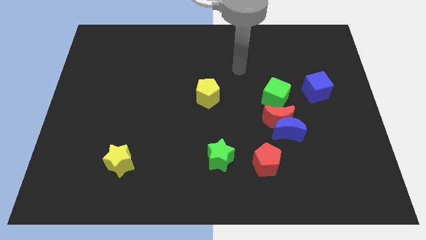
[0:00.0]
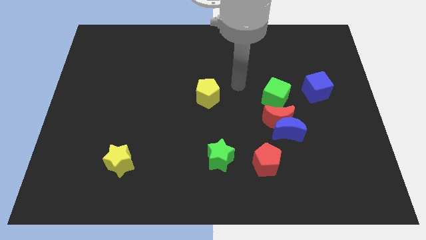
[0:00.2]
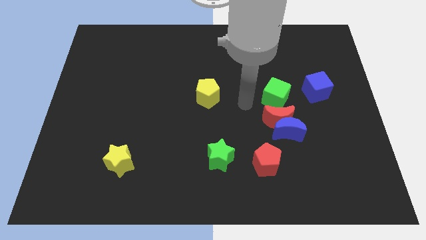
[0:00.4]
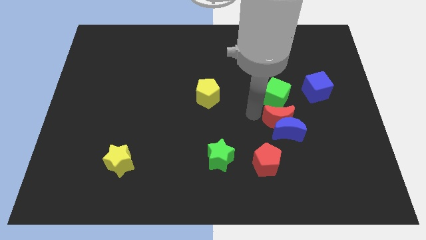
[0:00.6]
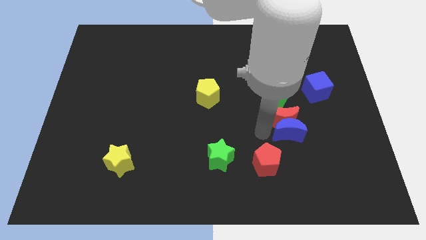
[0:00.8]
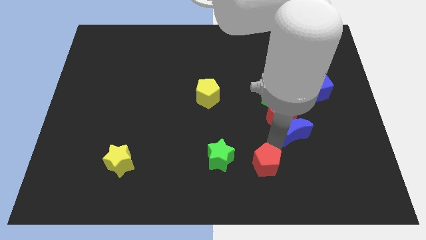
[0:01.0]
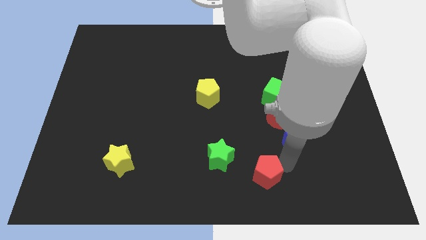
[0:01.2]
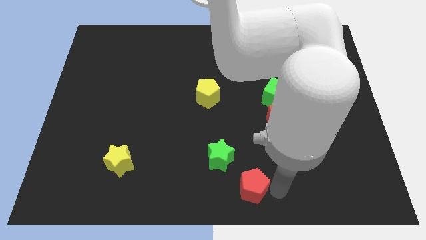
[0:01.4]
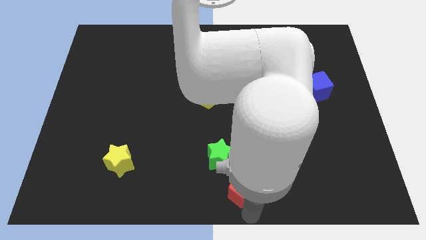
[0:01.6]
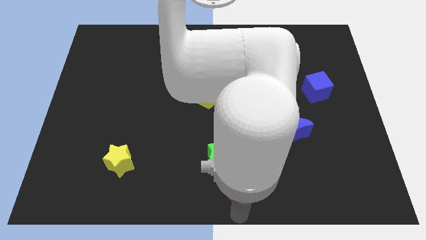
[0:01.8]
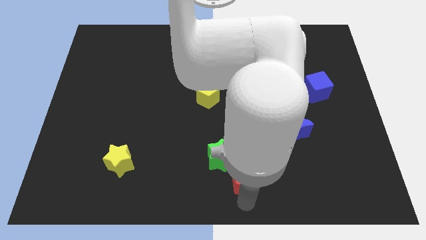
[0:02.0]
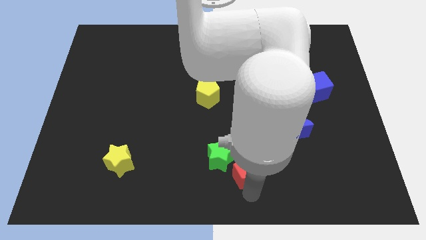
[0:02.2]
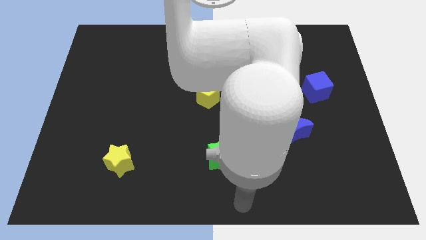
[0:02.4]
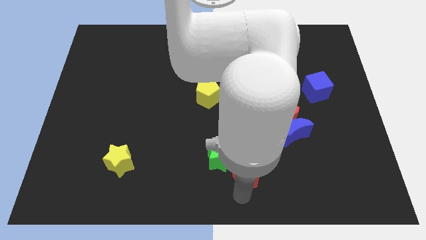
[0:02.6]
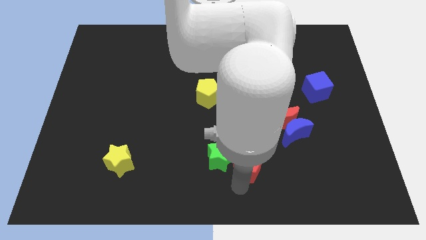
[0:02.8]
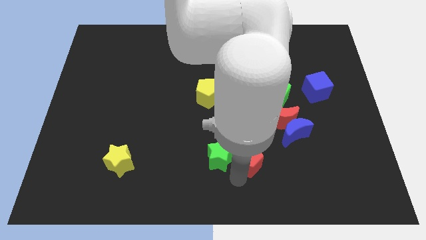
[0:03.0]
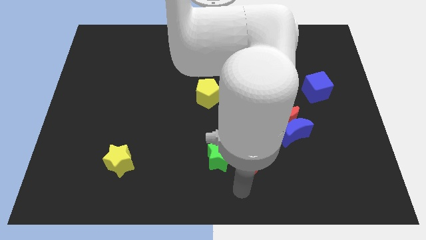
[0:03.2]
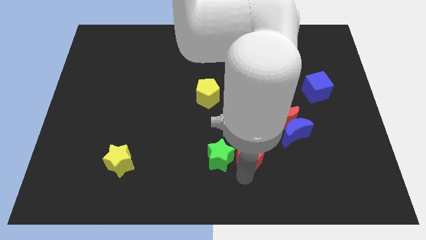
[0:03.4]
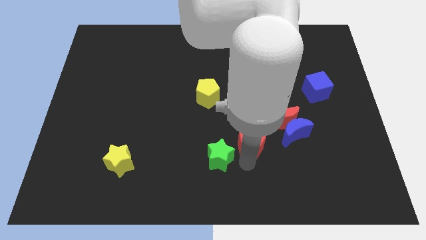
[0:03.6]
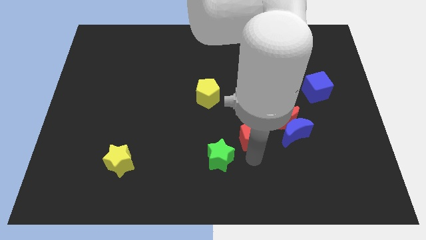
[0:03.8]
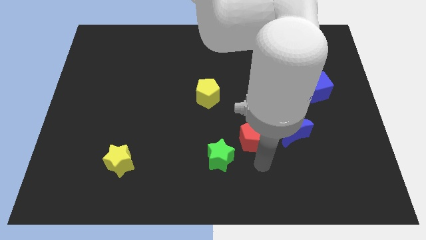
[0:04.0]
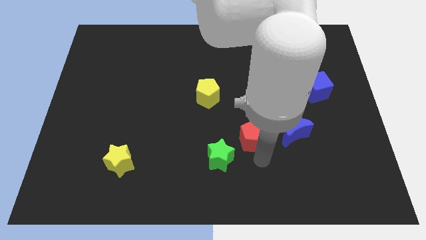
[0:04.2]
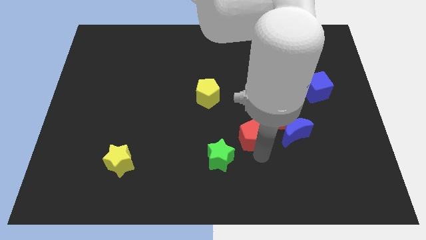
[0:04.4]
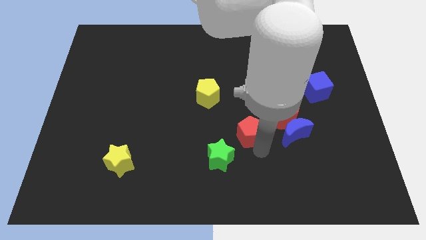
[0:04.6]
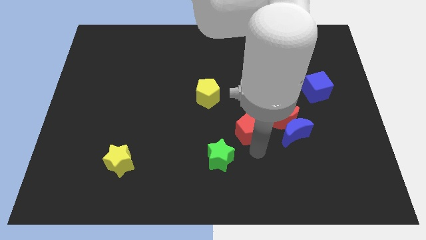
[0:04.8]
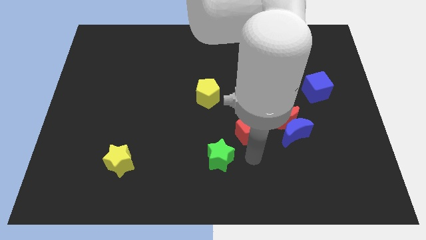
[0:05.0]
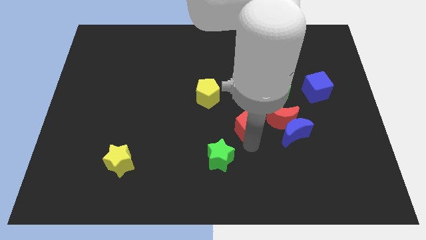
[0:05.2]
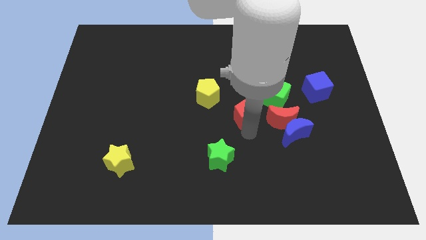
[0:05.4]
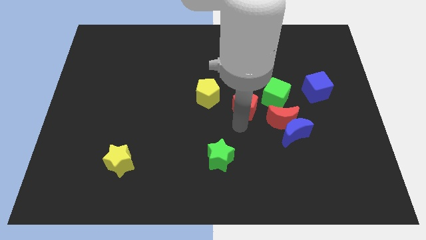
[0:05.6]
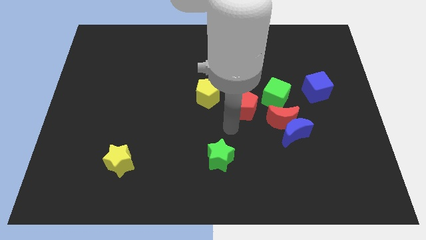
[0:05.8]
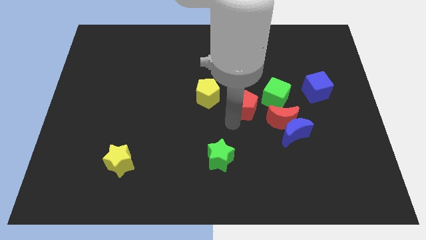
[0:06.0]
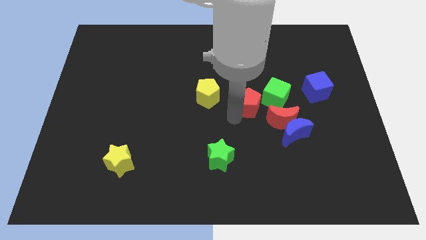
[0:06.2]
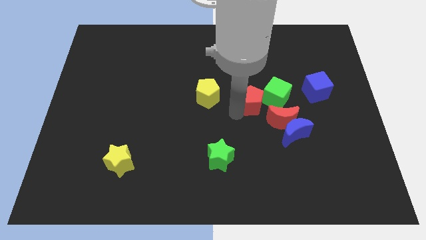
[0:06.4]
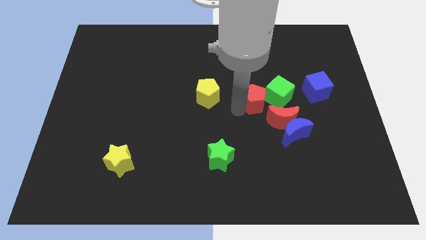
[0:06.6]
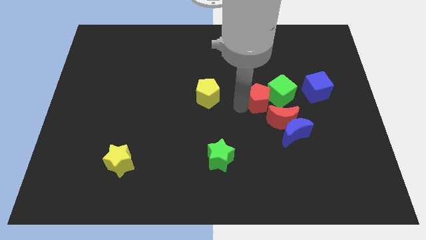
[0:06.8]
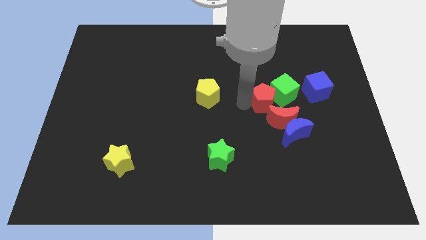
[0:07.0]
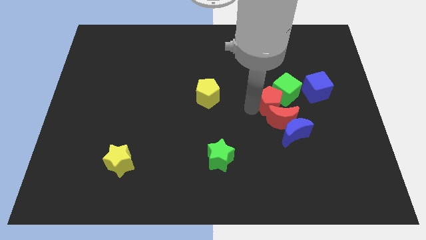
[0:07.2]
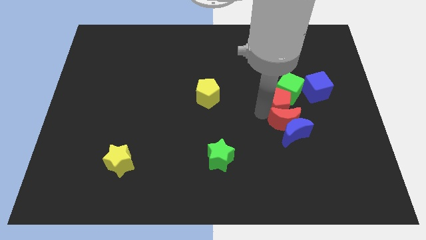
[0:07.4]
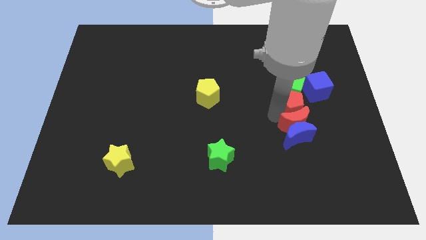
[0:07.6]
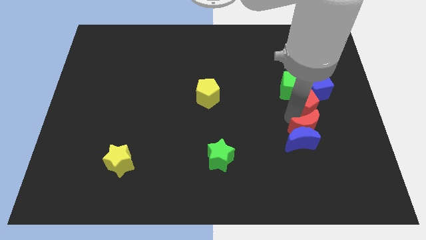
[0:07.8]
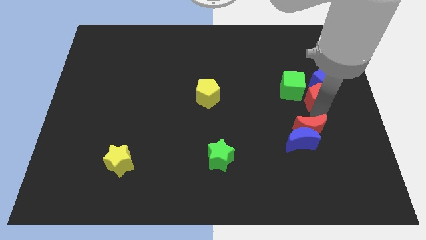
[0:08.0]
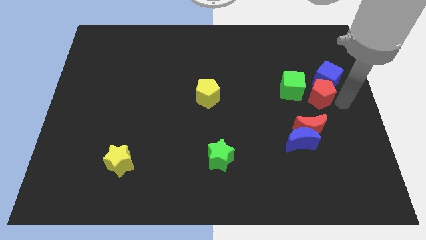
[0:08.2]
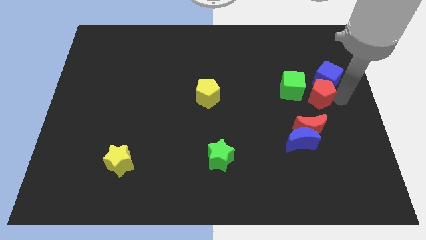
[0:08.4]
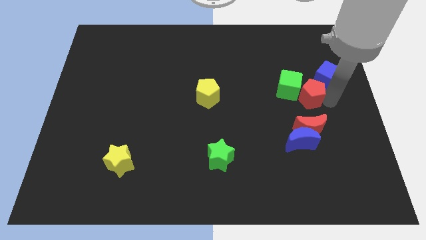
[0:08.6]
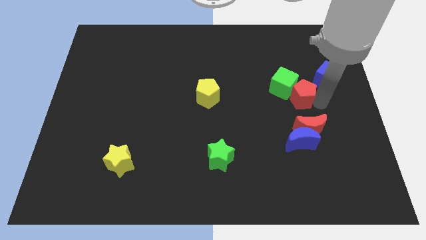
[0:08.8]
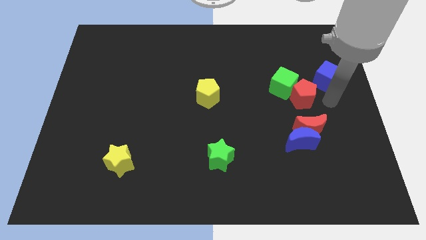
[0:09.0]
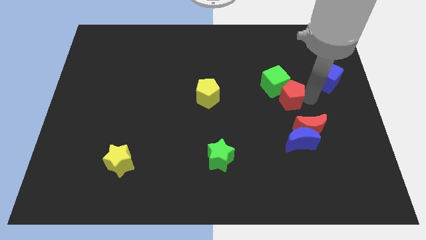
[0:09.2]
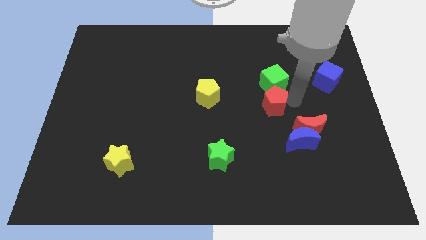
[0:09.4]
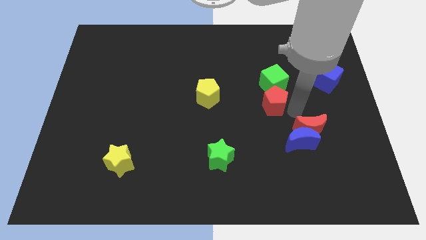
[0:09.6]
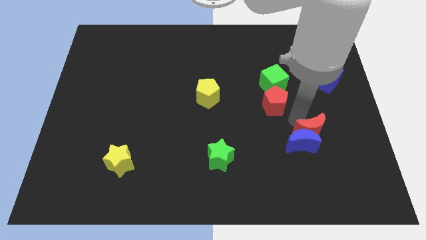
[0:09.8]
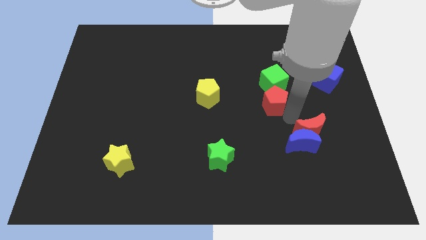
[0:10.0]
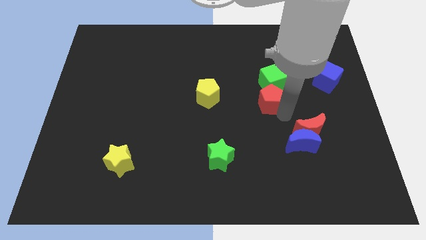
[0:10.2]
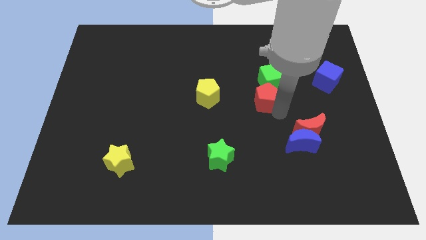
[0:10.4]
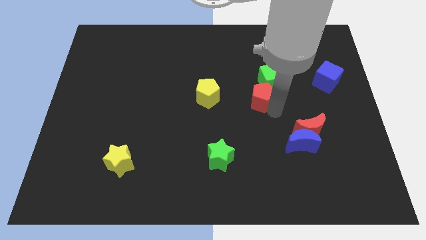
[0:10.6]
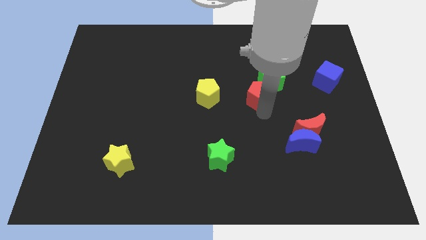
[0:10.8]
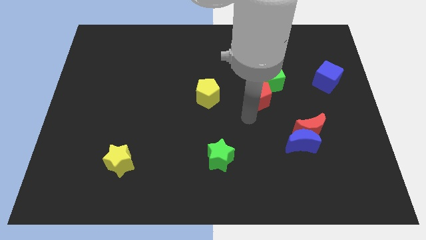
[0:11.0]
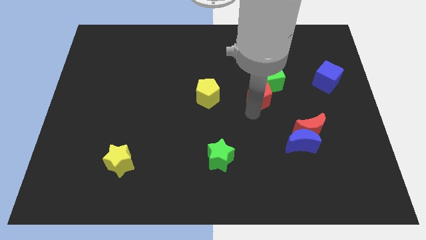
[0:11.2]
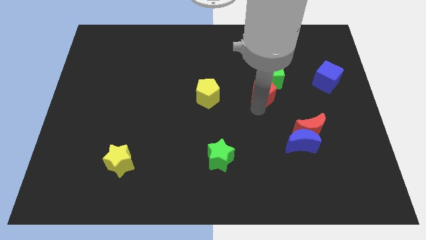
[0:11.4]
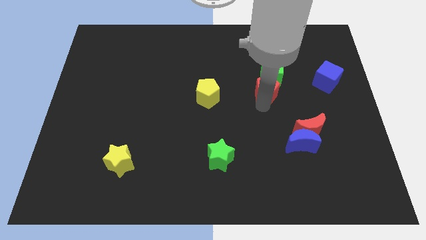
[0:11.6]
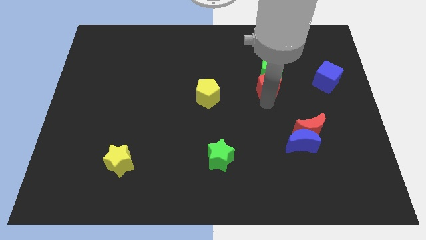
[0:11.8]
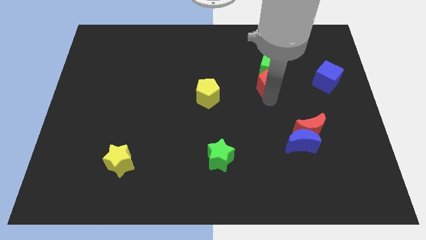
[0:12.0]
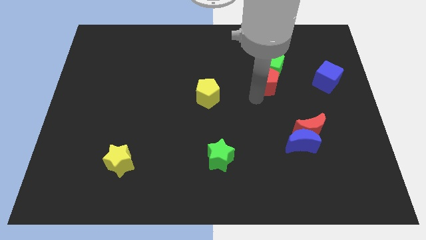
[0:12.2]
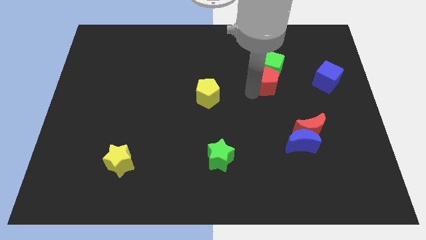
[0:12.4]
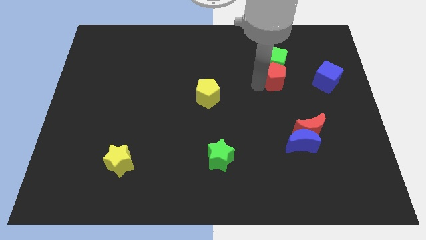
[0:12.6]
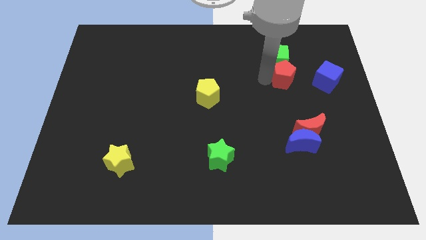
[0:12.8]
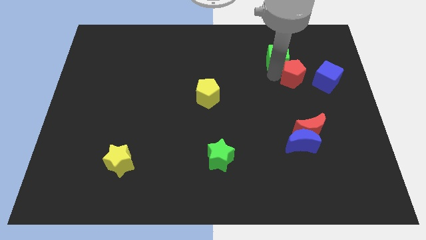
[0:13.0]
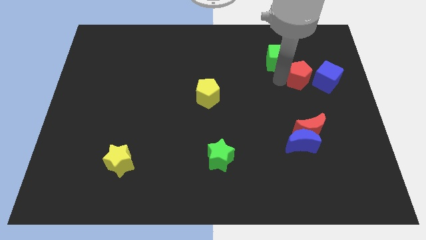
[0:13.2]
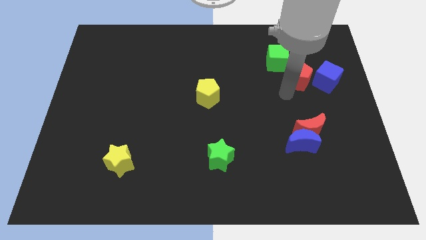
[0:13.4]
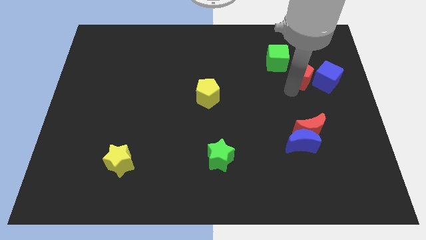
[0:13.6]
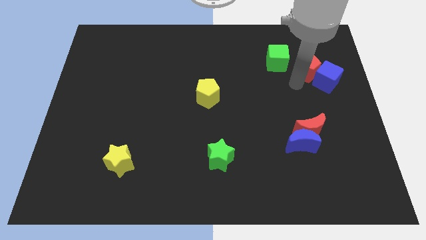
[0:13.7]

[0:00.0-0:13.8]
slide the red pentagon to the top of the blue cube
